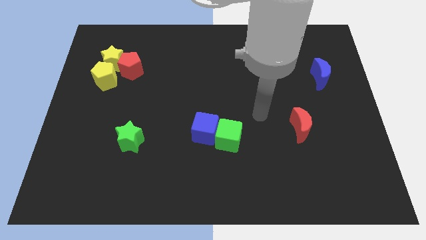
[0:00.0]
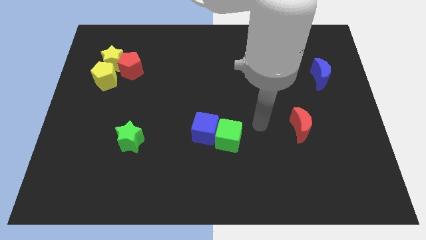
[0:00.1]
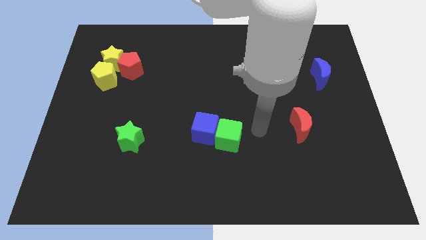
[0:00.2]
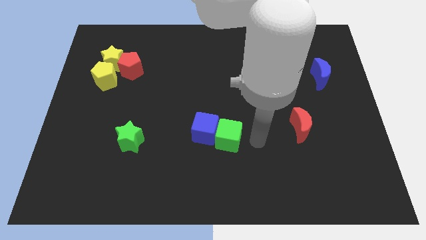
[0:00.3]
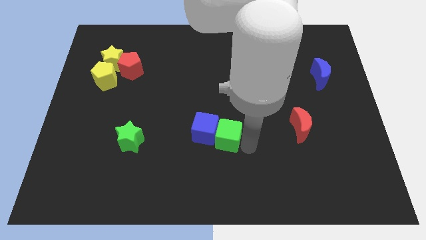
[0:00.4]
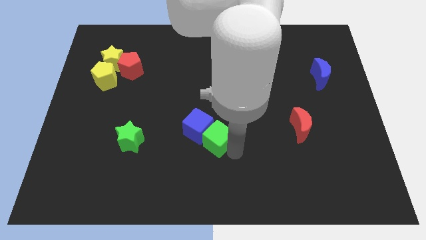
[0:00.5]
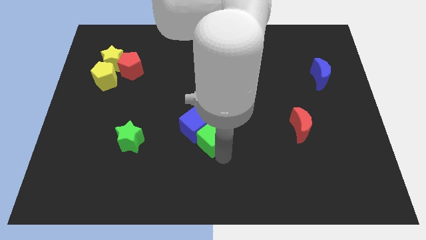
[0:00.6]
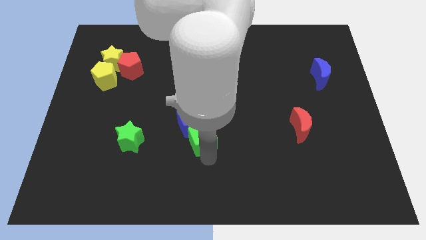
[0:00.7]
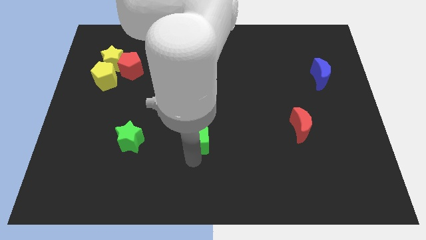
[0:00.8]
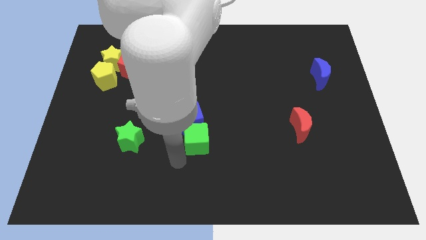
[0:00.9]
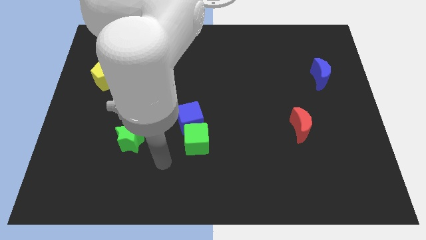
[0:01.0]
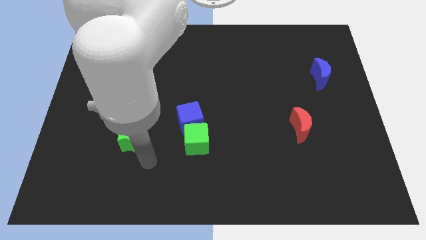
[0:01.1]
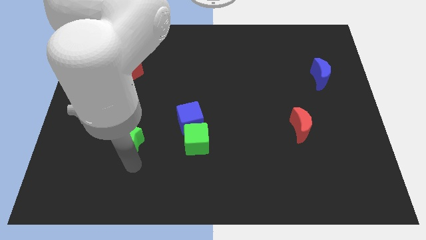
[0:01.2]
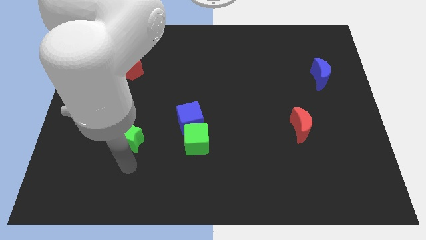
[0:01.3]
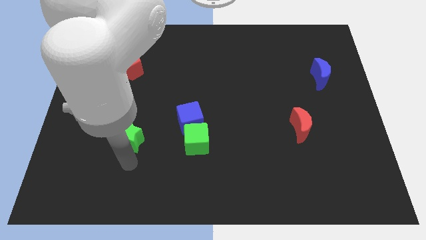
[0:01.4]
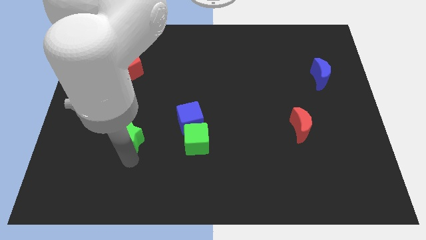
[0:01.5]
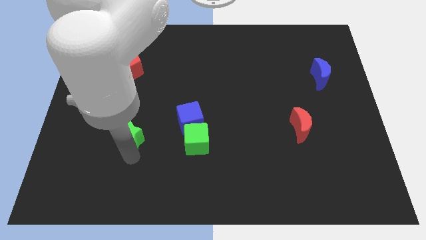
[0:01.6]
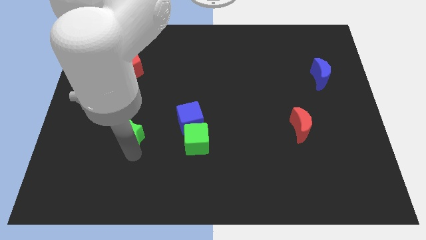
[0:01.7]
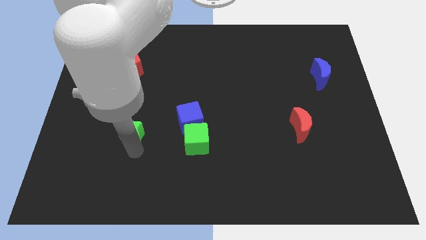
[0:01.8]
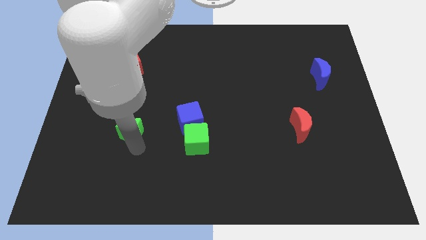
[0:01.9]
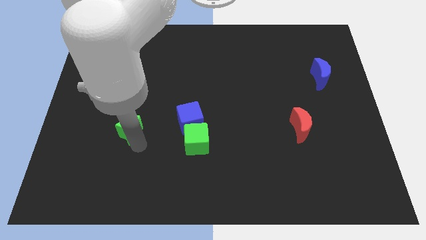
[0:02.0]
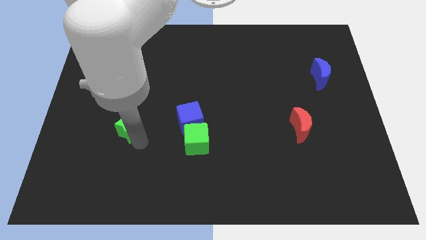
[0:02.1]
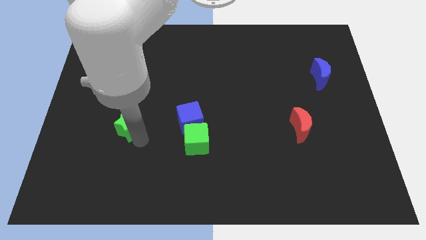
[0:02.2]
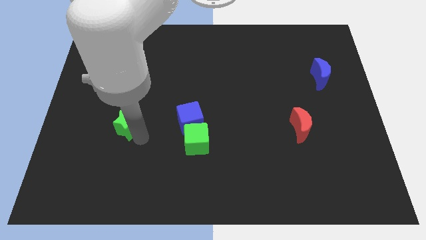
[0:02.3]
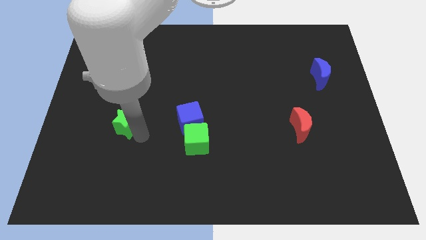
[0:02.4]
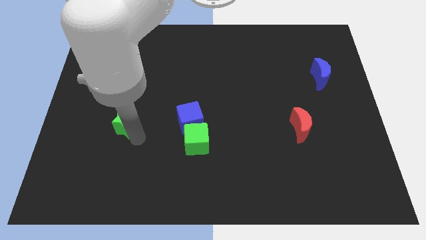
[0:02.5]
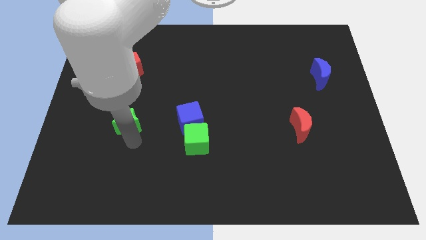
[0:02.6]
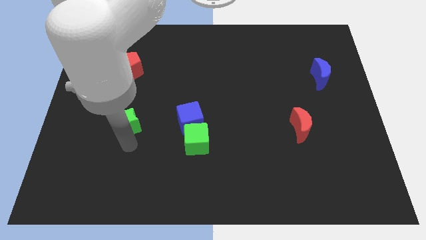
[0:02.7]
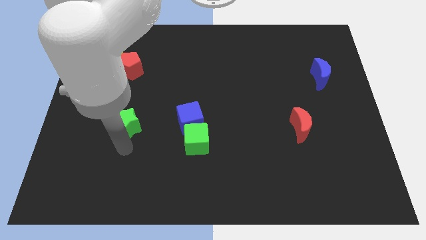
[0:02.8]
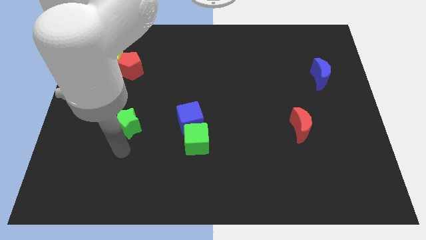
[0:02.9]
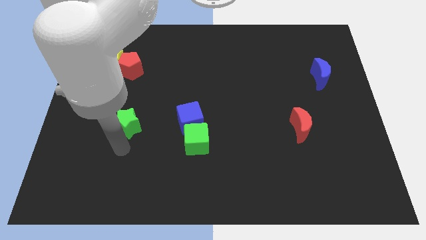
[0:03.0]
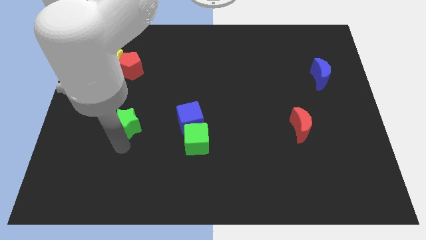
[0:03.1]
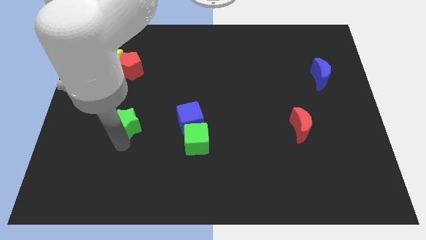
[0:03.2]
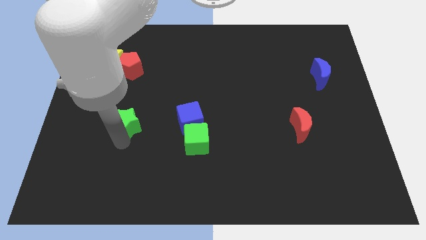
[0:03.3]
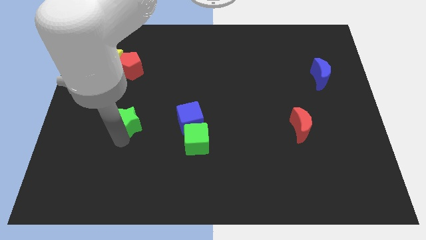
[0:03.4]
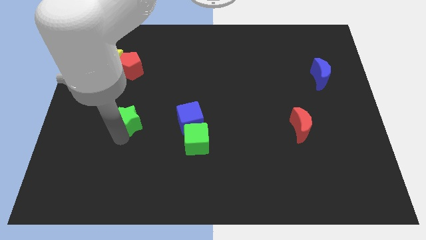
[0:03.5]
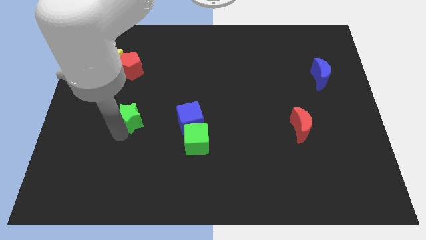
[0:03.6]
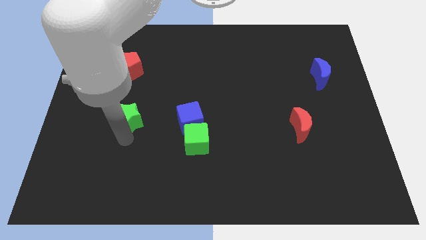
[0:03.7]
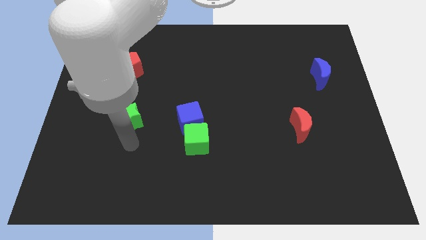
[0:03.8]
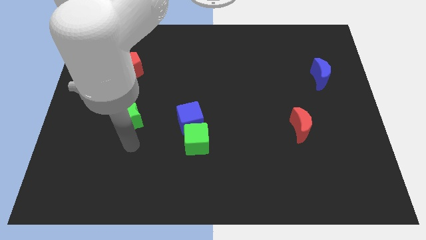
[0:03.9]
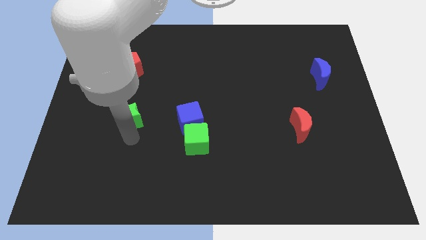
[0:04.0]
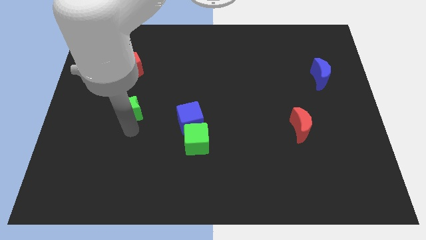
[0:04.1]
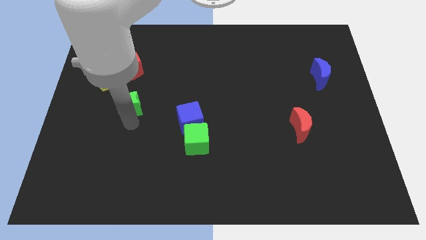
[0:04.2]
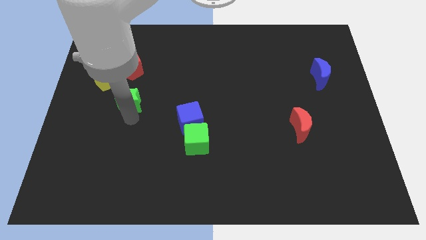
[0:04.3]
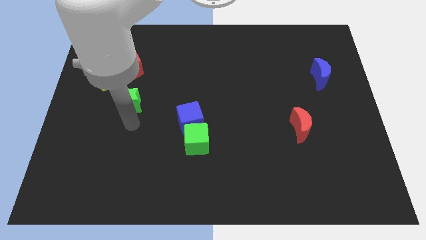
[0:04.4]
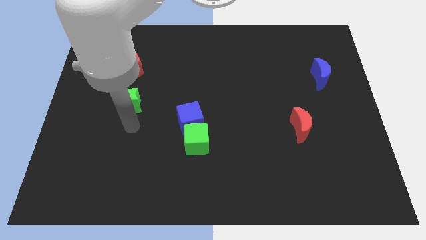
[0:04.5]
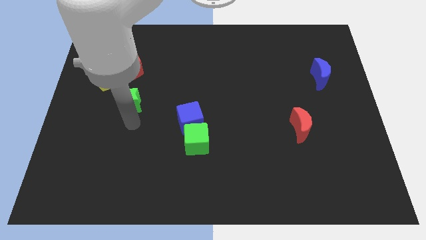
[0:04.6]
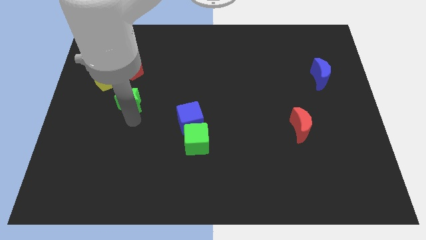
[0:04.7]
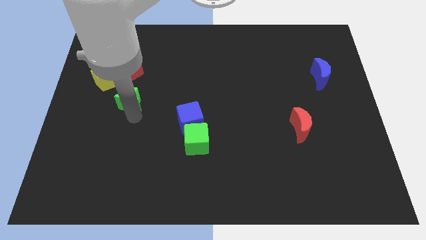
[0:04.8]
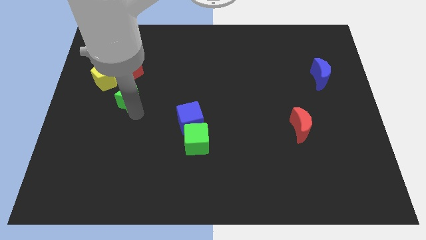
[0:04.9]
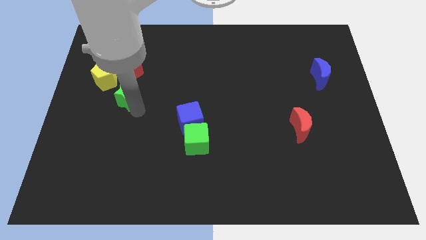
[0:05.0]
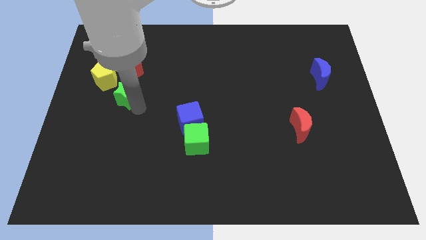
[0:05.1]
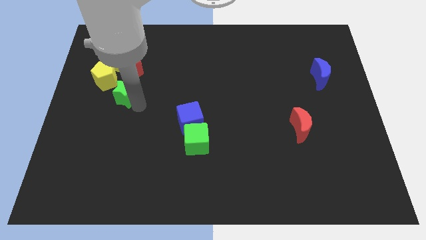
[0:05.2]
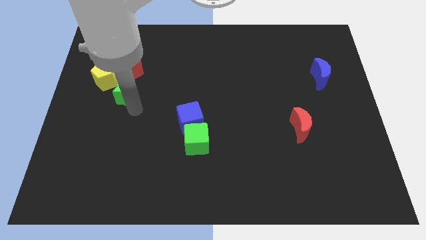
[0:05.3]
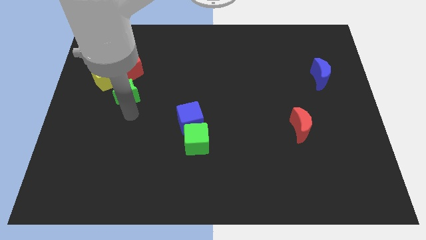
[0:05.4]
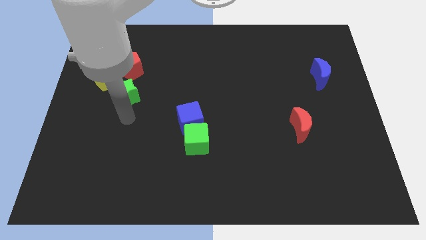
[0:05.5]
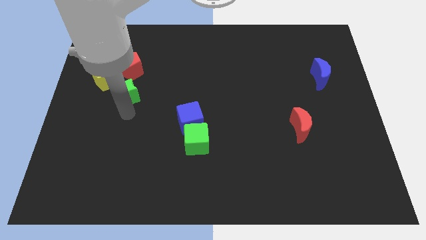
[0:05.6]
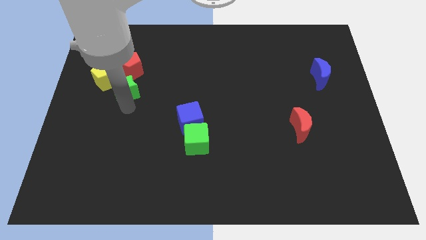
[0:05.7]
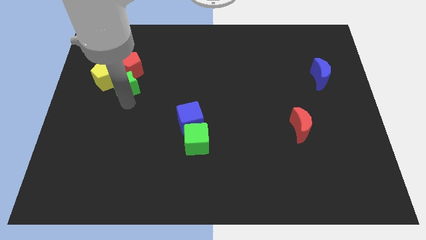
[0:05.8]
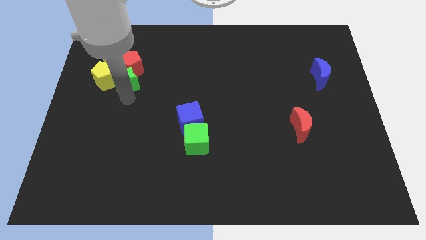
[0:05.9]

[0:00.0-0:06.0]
put the green star to the red pentagon

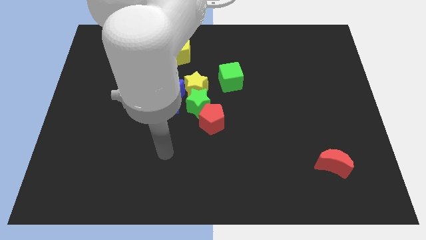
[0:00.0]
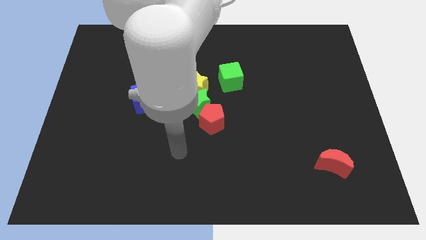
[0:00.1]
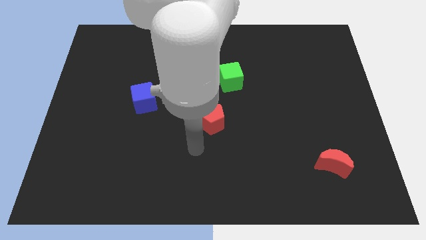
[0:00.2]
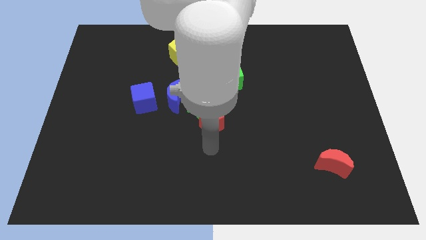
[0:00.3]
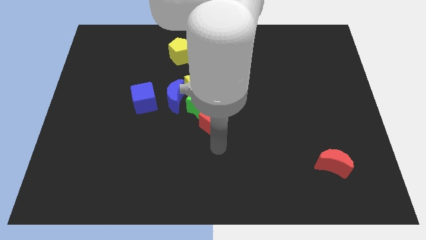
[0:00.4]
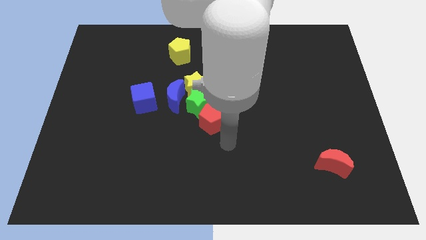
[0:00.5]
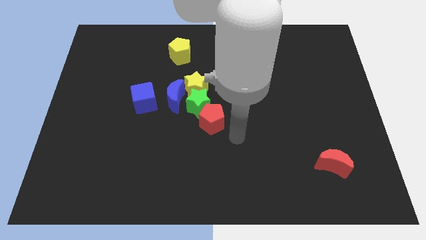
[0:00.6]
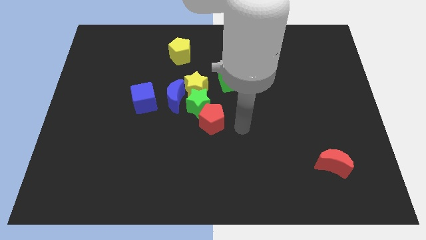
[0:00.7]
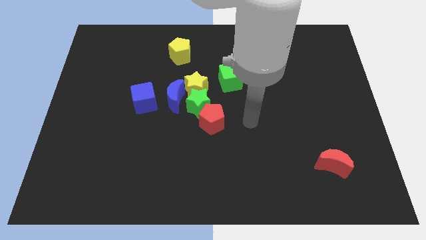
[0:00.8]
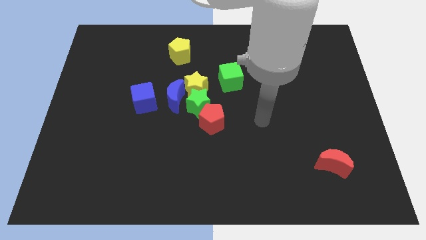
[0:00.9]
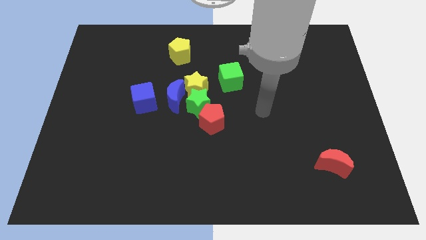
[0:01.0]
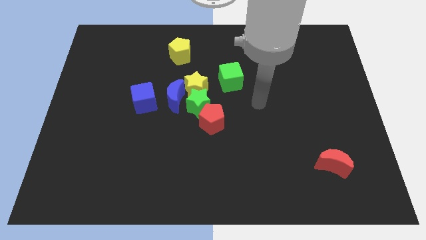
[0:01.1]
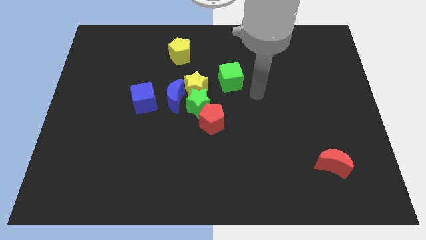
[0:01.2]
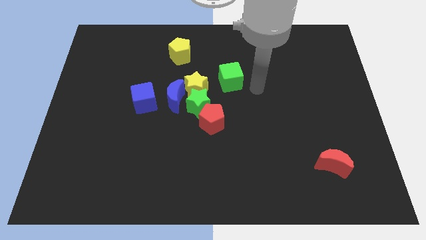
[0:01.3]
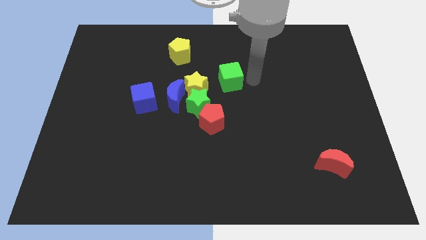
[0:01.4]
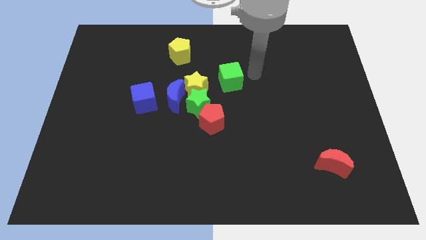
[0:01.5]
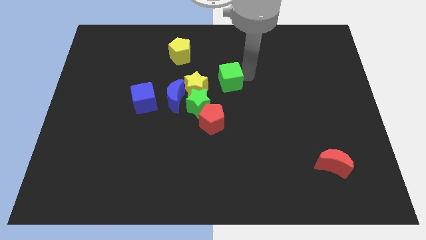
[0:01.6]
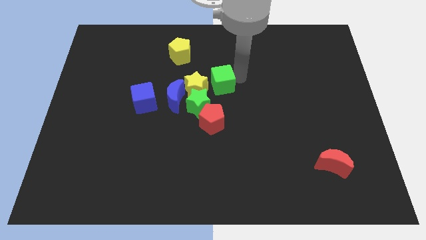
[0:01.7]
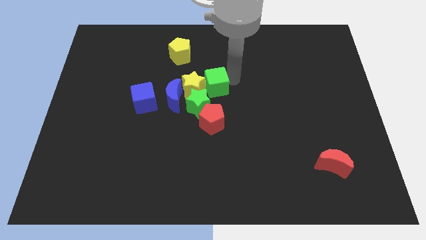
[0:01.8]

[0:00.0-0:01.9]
put the green cube to the yellow star
